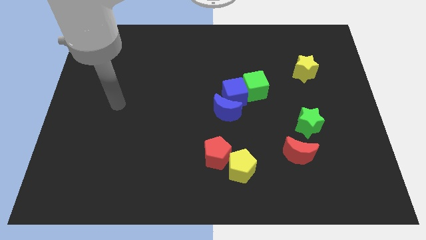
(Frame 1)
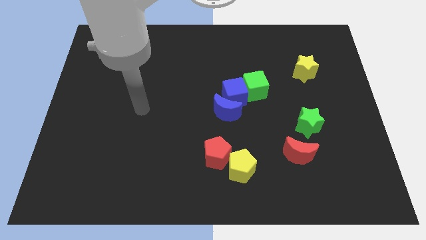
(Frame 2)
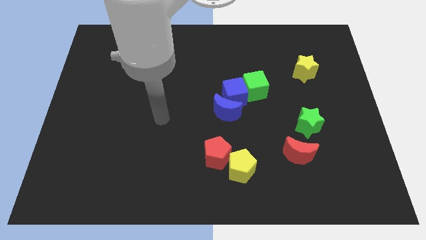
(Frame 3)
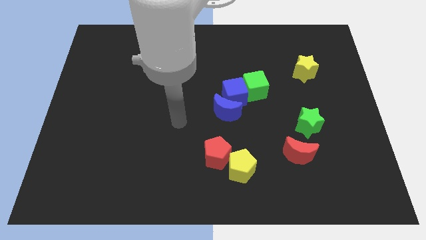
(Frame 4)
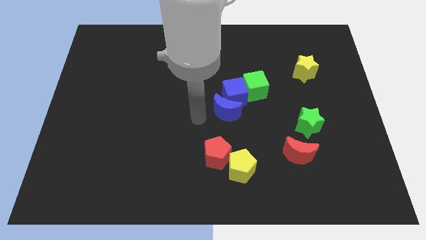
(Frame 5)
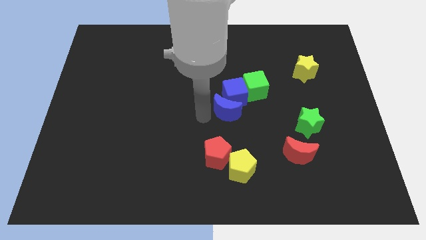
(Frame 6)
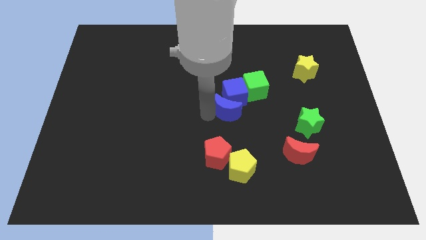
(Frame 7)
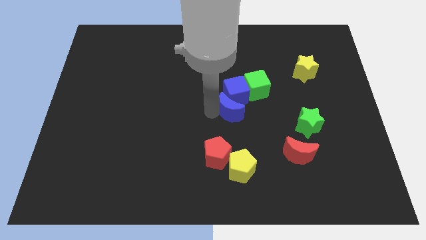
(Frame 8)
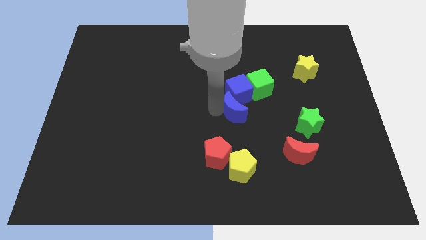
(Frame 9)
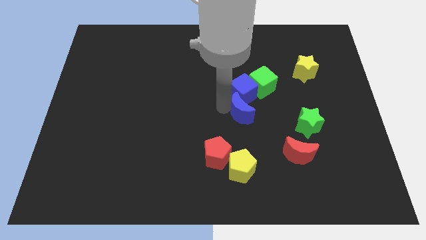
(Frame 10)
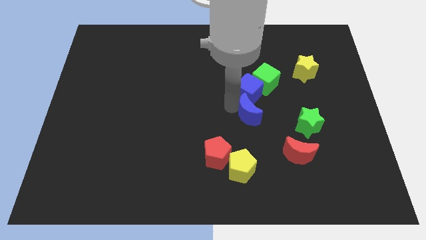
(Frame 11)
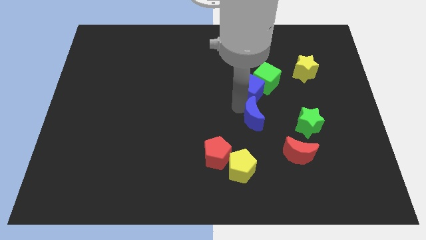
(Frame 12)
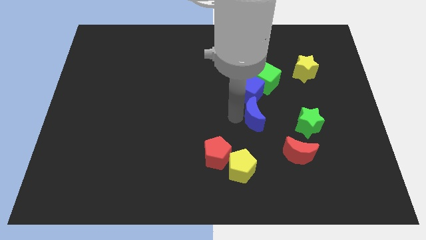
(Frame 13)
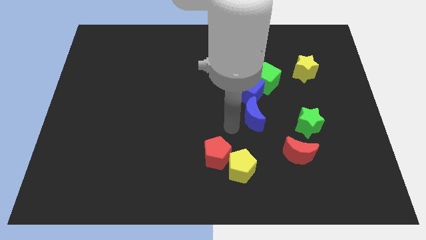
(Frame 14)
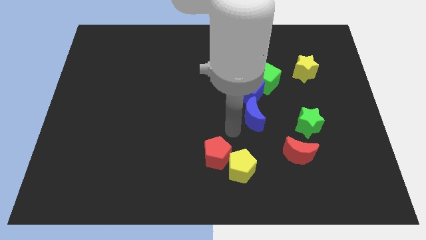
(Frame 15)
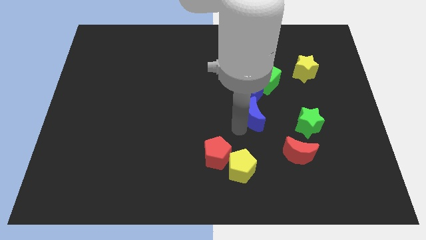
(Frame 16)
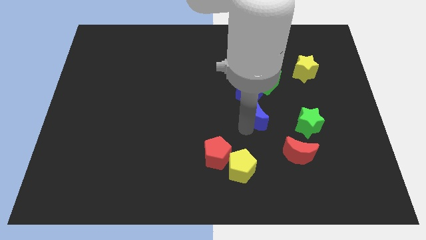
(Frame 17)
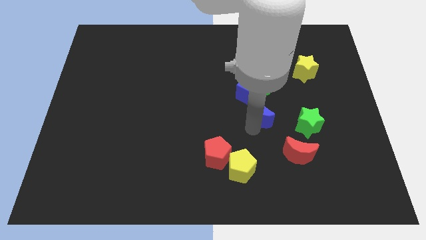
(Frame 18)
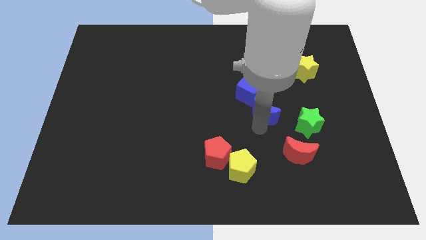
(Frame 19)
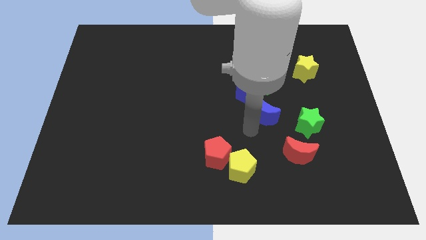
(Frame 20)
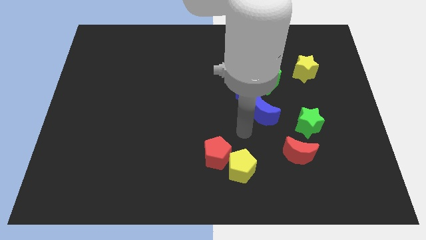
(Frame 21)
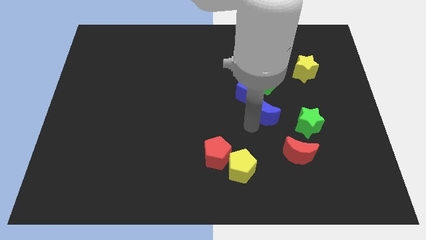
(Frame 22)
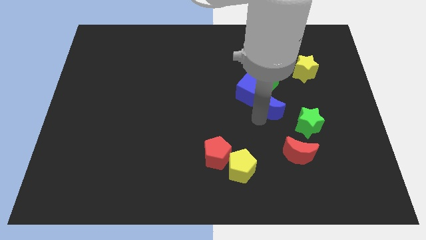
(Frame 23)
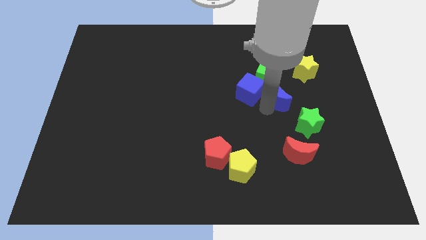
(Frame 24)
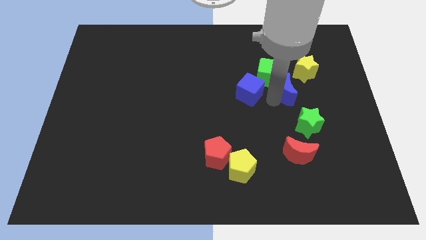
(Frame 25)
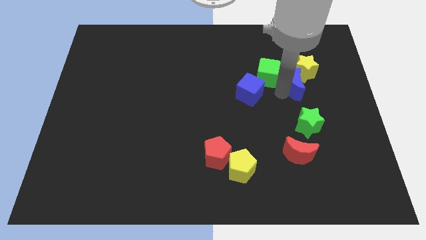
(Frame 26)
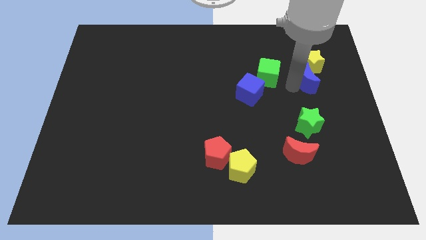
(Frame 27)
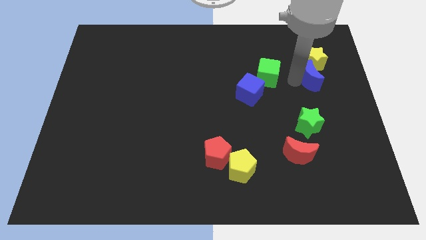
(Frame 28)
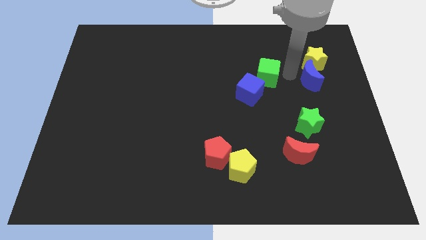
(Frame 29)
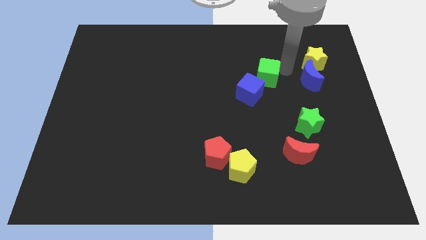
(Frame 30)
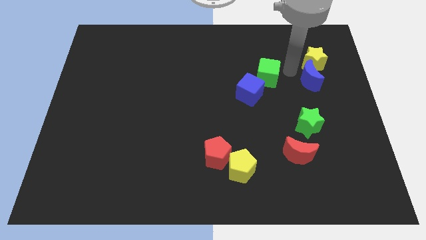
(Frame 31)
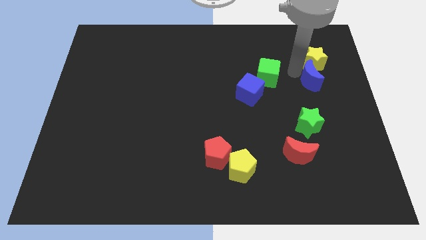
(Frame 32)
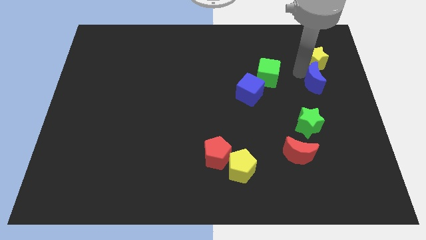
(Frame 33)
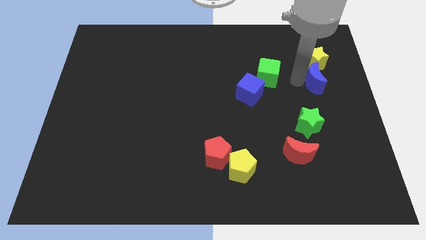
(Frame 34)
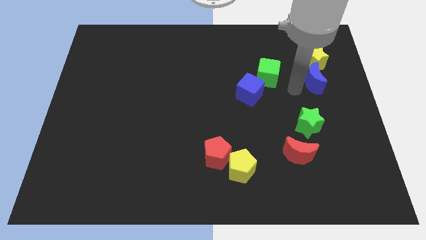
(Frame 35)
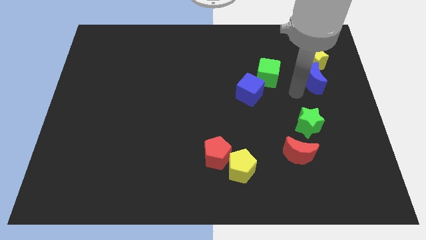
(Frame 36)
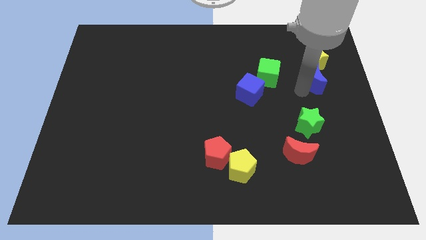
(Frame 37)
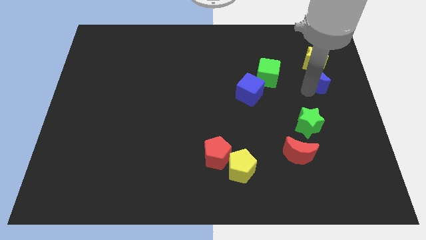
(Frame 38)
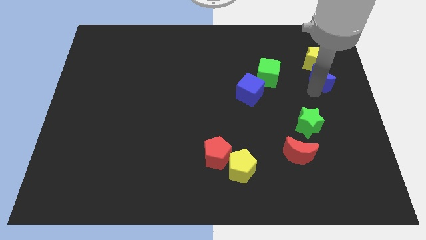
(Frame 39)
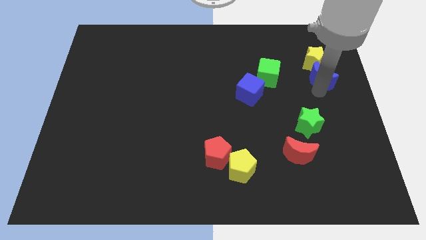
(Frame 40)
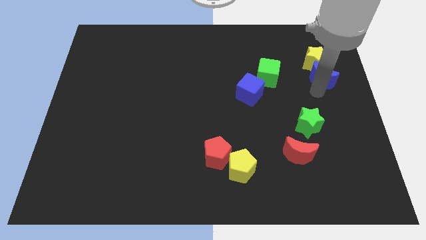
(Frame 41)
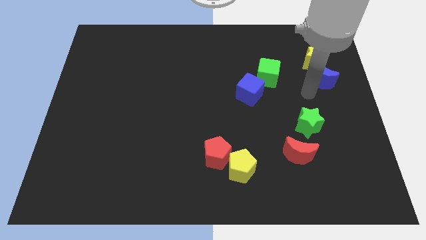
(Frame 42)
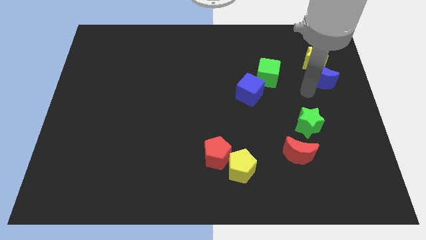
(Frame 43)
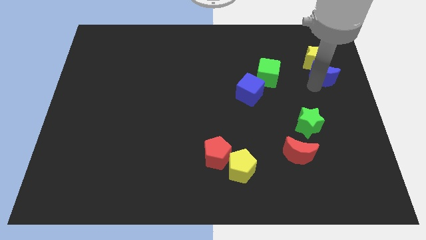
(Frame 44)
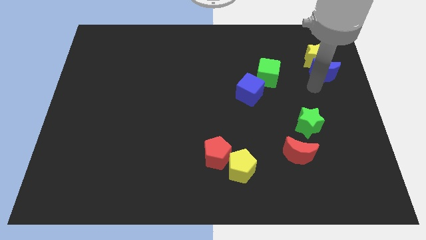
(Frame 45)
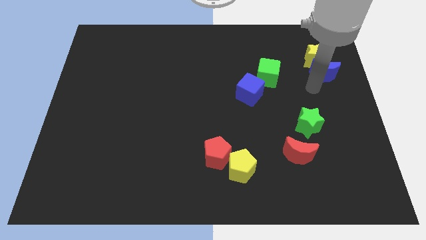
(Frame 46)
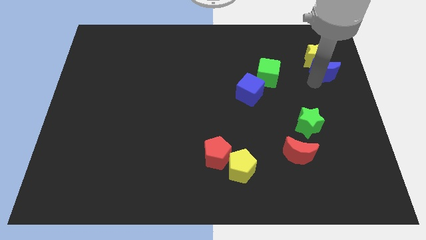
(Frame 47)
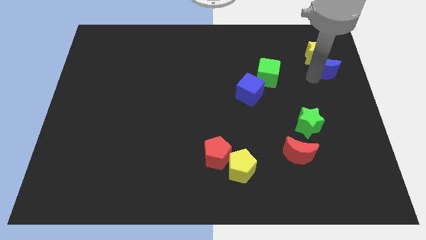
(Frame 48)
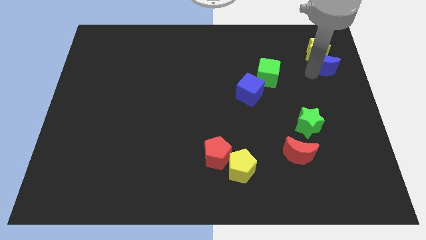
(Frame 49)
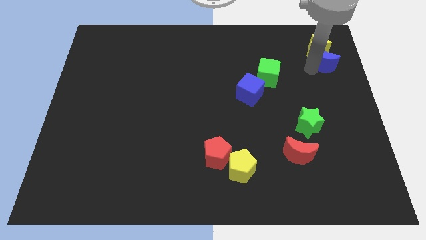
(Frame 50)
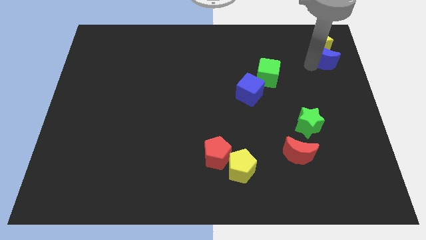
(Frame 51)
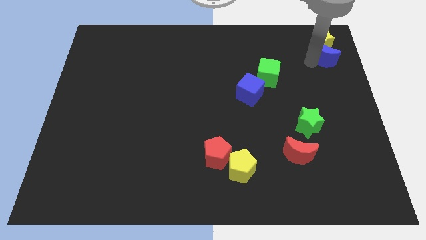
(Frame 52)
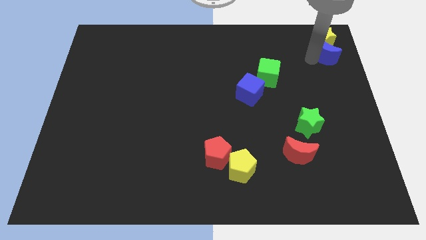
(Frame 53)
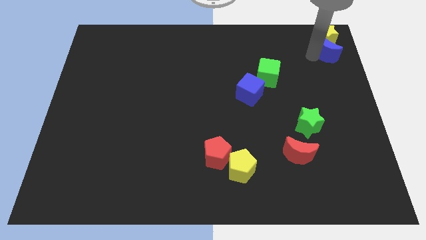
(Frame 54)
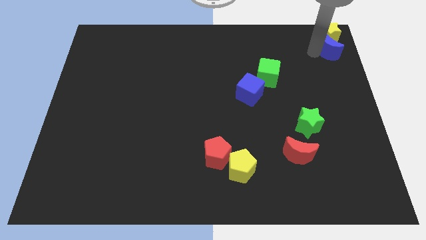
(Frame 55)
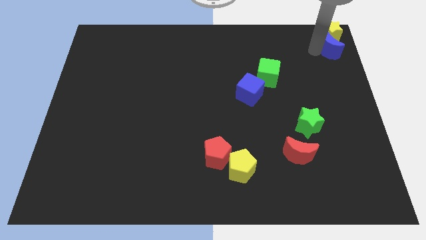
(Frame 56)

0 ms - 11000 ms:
put the blue moon to the upper right corner

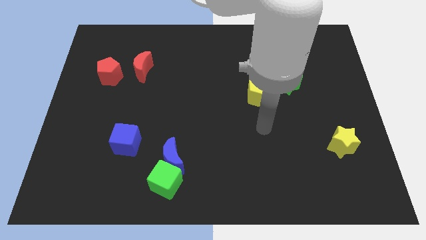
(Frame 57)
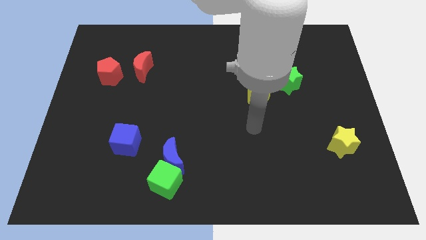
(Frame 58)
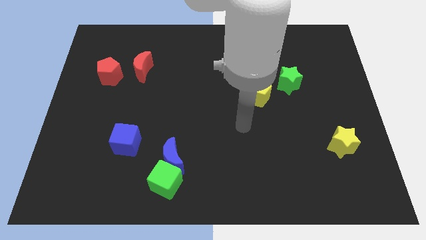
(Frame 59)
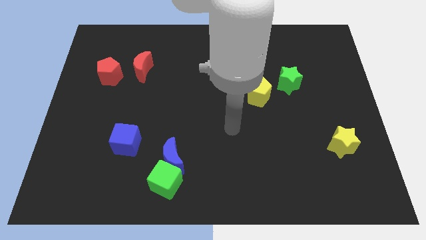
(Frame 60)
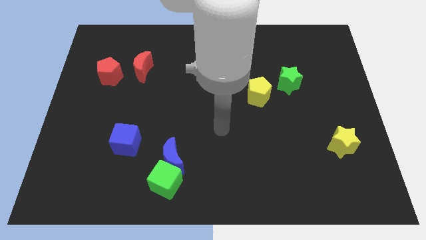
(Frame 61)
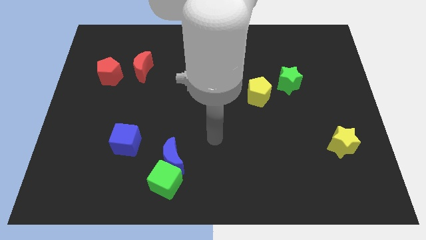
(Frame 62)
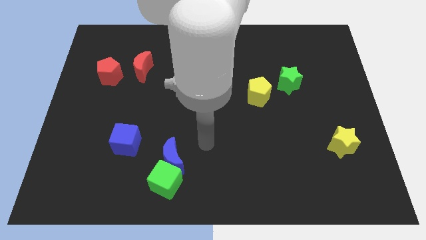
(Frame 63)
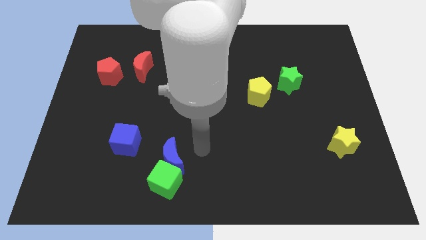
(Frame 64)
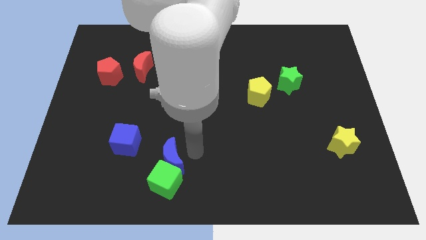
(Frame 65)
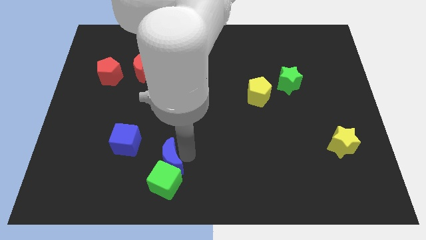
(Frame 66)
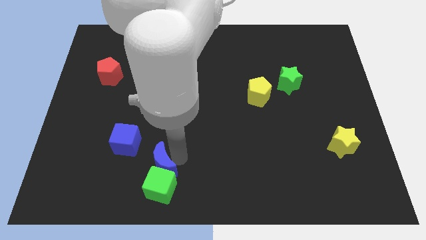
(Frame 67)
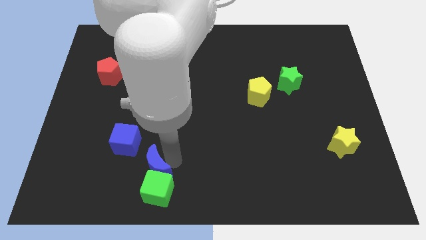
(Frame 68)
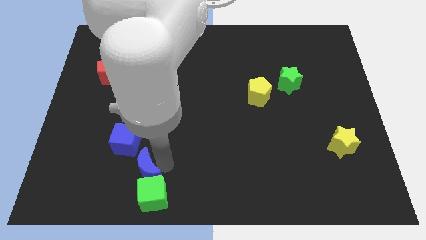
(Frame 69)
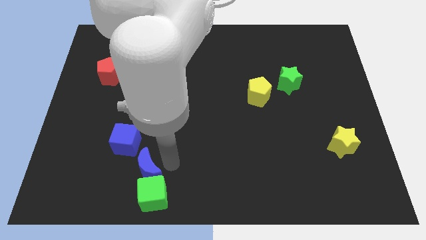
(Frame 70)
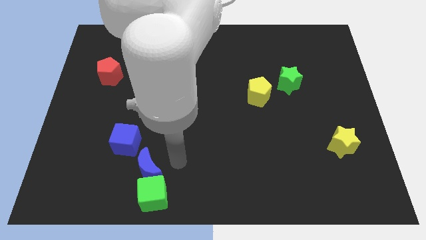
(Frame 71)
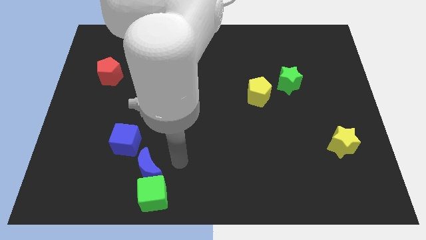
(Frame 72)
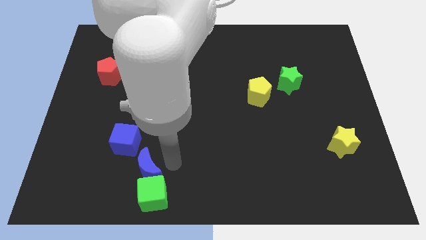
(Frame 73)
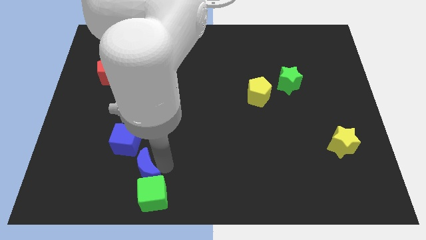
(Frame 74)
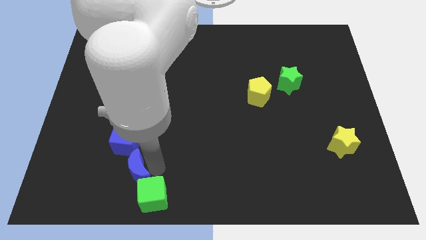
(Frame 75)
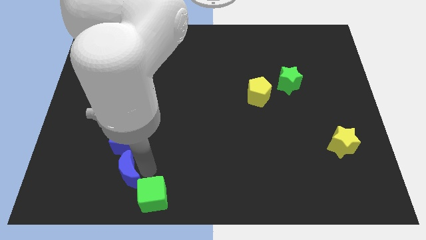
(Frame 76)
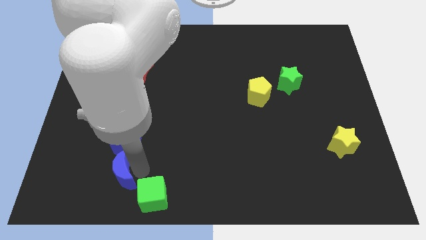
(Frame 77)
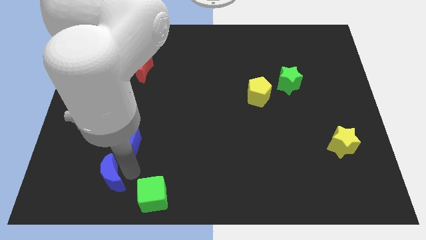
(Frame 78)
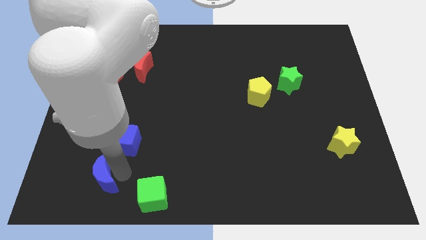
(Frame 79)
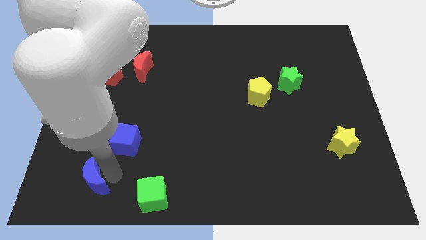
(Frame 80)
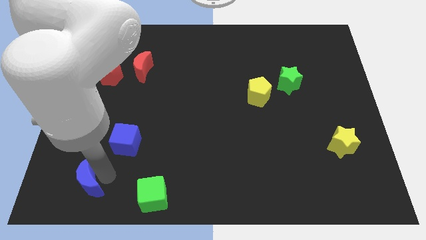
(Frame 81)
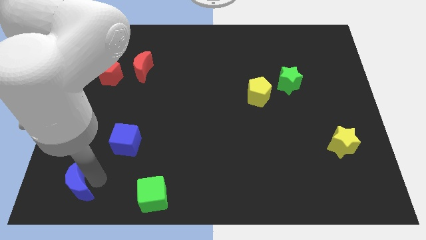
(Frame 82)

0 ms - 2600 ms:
slide the blue moon to the bottom left
